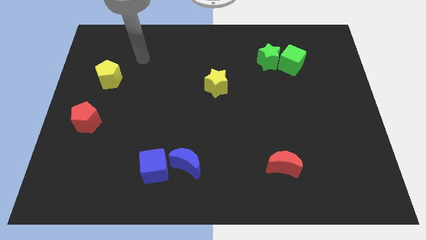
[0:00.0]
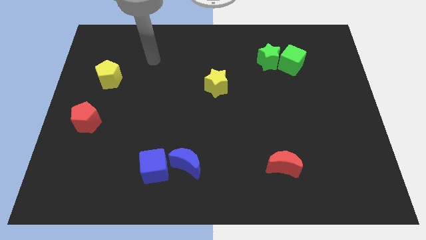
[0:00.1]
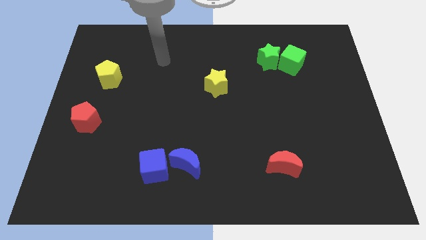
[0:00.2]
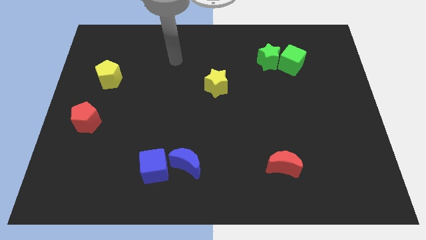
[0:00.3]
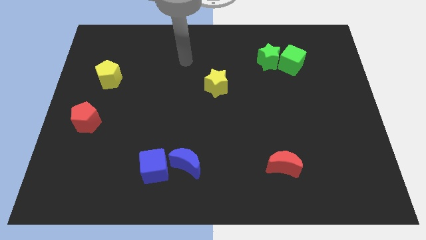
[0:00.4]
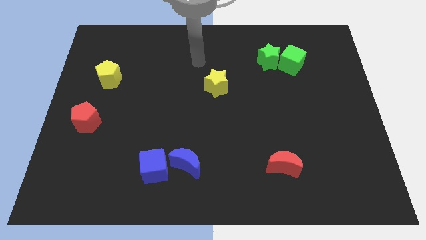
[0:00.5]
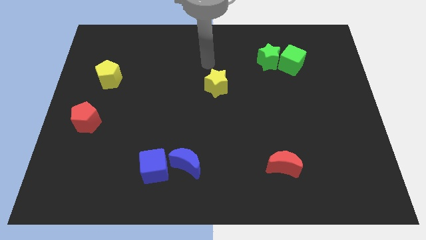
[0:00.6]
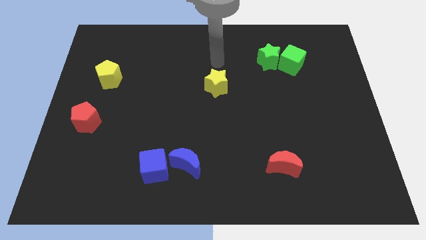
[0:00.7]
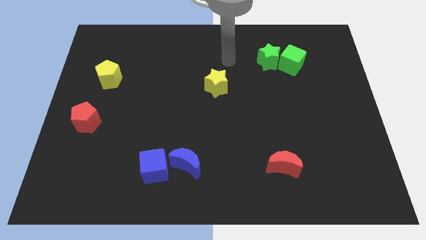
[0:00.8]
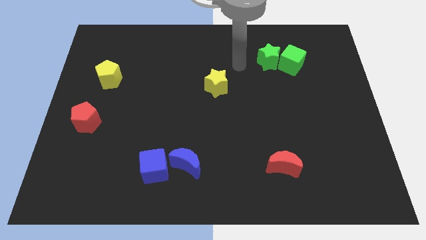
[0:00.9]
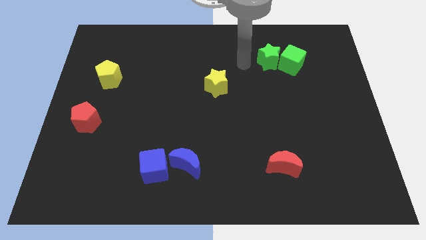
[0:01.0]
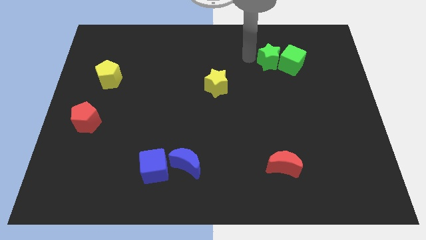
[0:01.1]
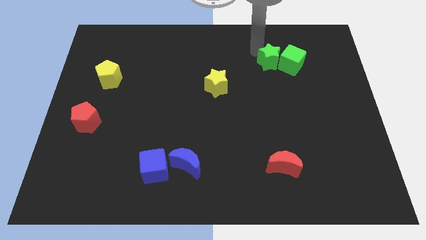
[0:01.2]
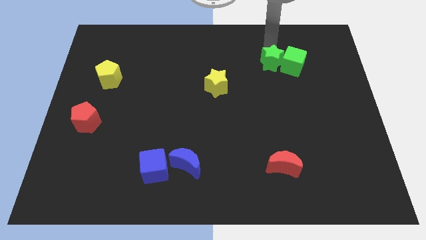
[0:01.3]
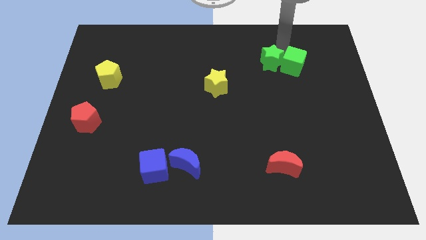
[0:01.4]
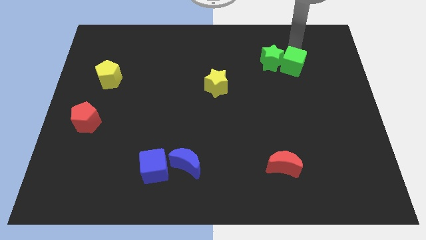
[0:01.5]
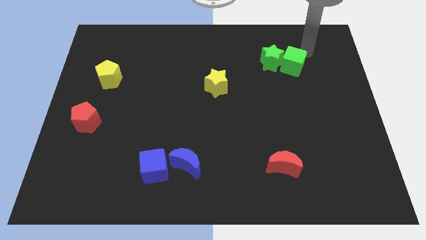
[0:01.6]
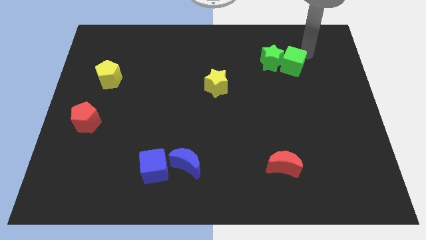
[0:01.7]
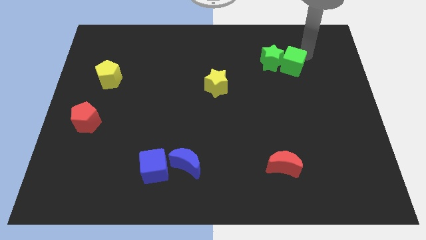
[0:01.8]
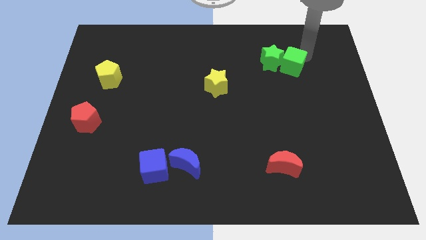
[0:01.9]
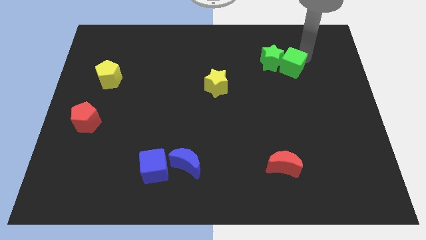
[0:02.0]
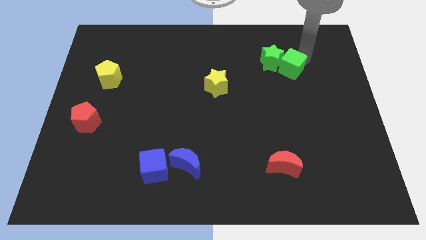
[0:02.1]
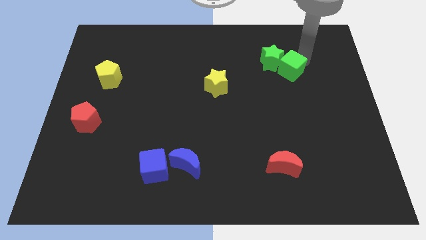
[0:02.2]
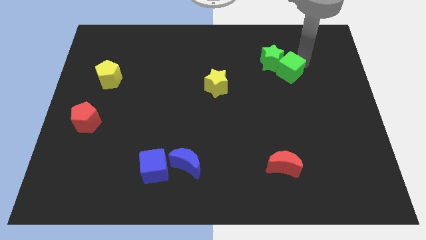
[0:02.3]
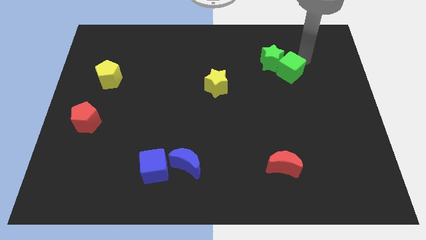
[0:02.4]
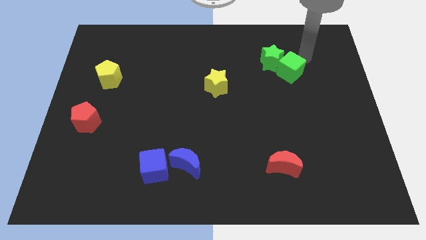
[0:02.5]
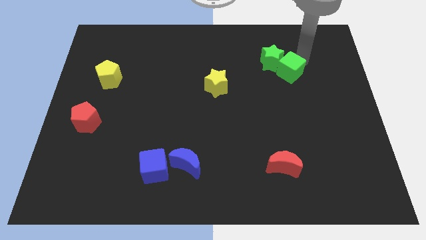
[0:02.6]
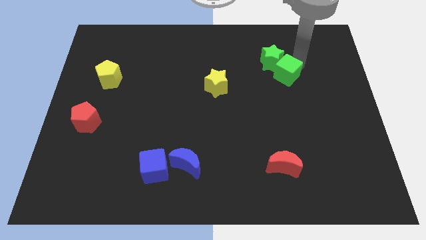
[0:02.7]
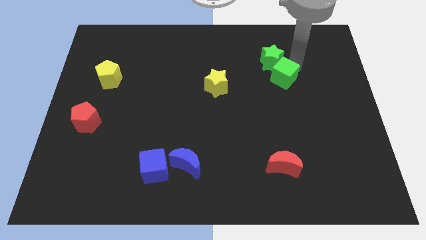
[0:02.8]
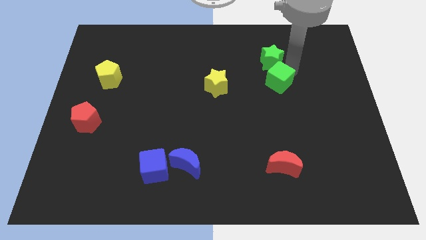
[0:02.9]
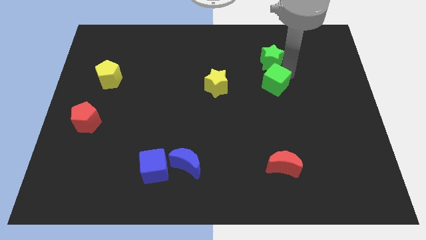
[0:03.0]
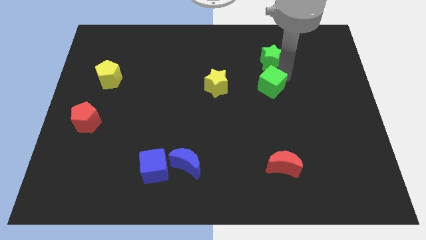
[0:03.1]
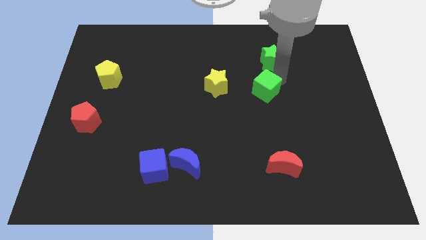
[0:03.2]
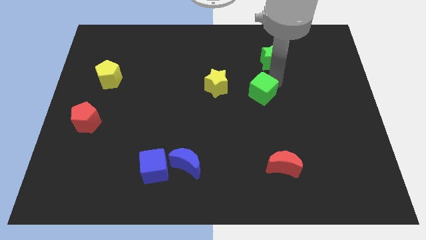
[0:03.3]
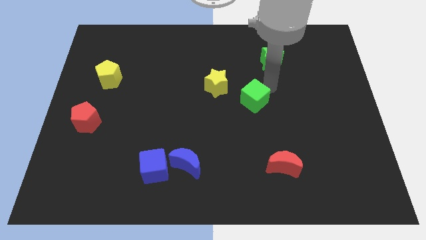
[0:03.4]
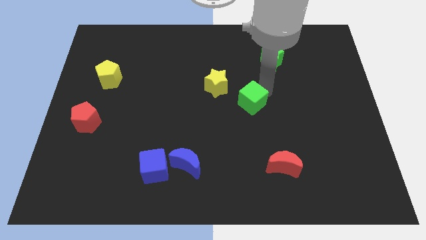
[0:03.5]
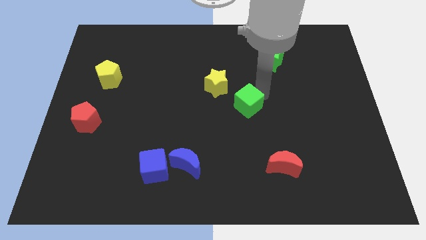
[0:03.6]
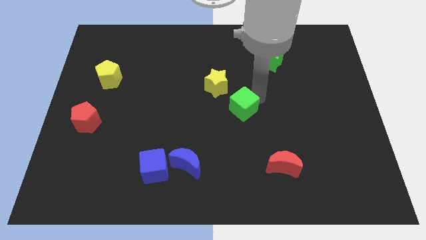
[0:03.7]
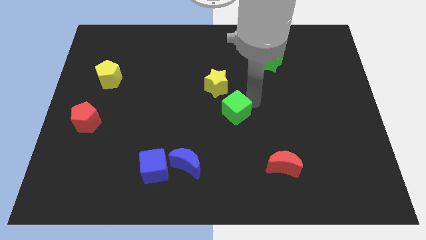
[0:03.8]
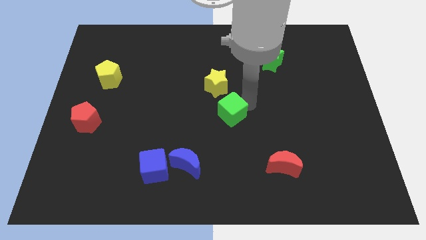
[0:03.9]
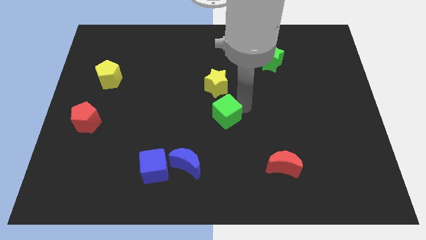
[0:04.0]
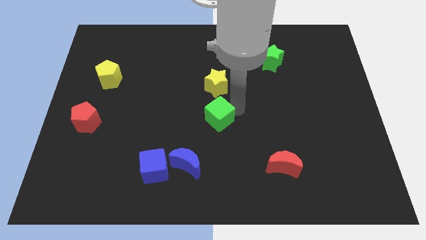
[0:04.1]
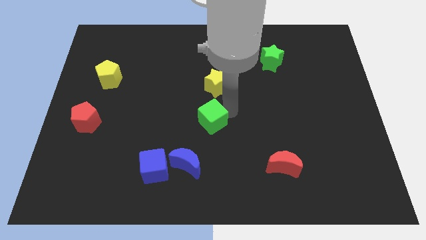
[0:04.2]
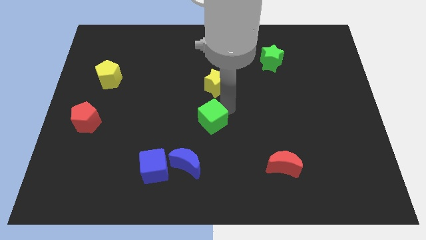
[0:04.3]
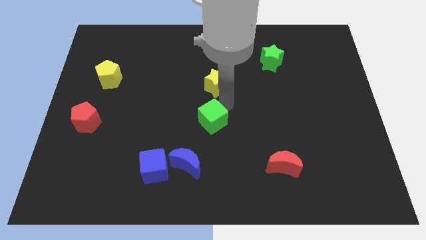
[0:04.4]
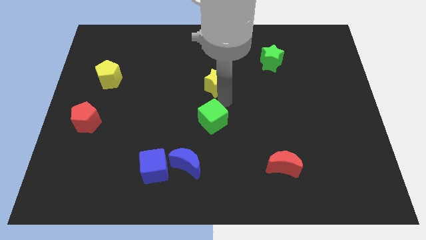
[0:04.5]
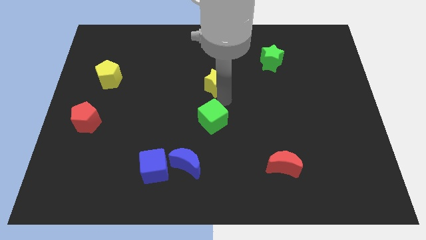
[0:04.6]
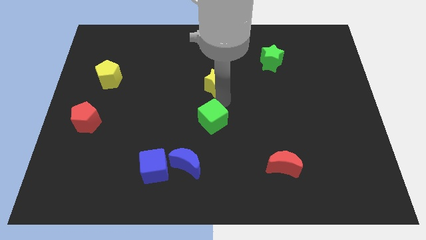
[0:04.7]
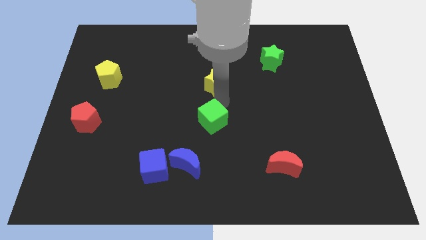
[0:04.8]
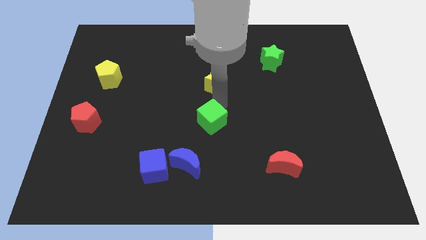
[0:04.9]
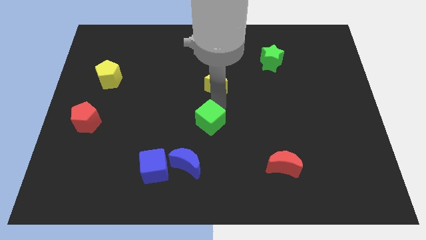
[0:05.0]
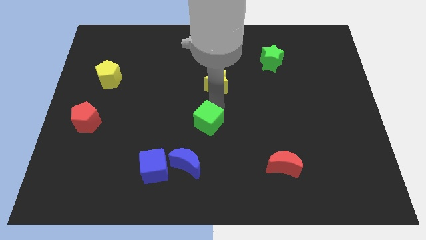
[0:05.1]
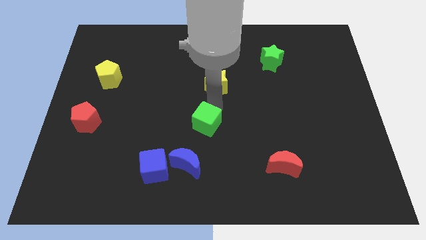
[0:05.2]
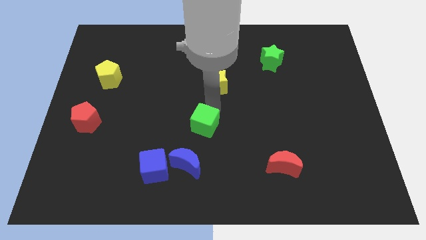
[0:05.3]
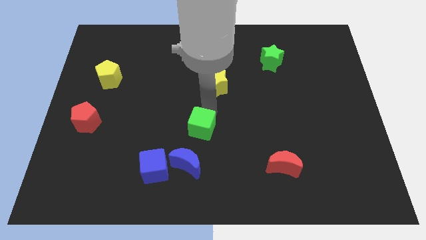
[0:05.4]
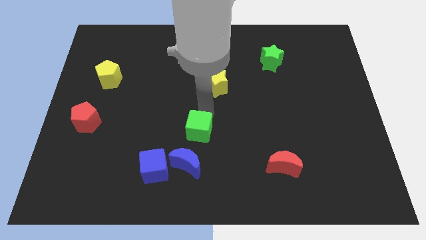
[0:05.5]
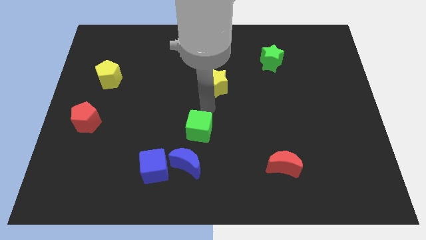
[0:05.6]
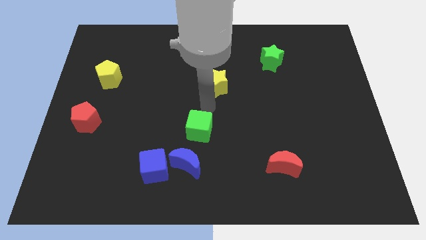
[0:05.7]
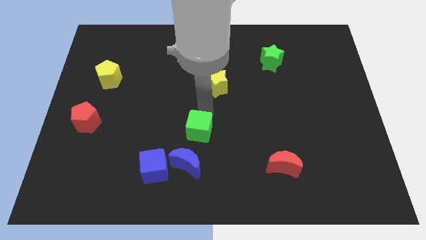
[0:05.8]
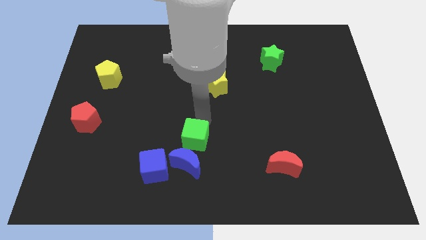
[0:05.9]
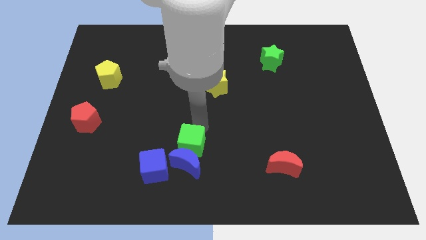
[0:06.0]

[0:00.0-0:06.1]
push the green cube to the blue moon

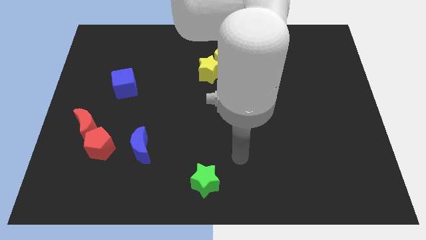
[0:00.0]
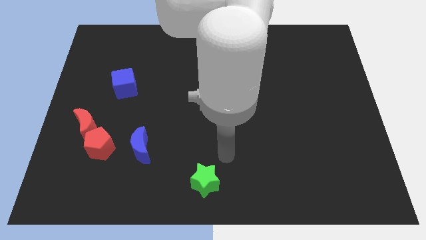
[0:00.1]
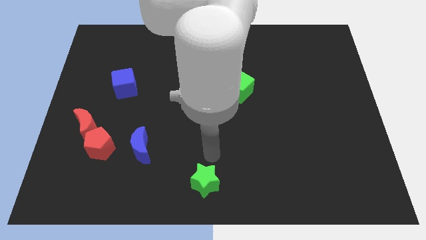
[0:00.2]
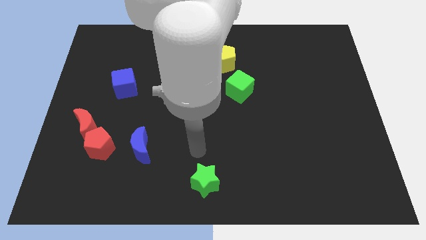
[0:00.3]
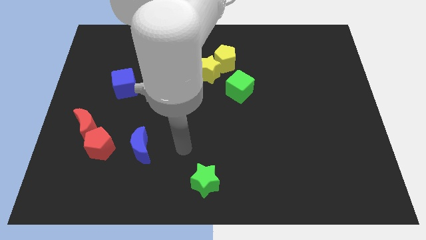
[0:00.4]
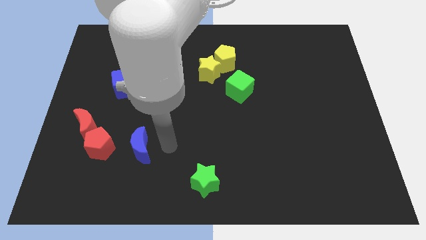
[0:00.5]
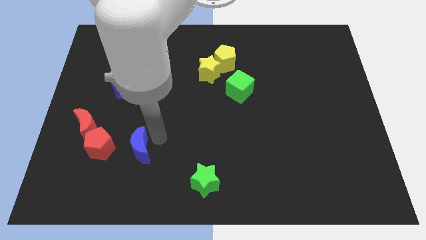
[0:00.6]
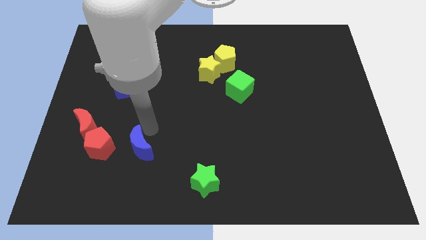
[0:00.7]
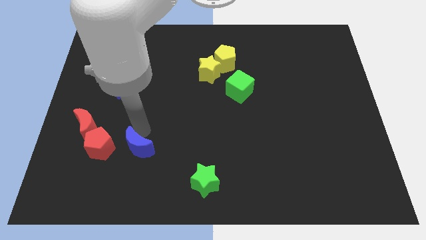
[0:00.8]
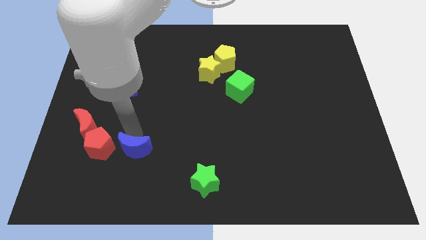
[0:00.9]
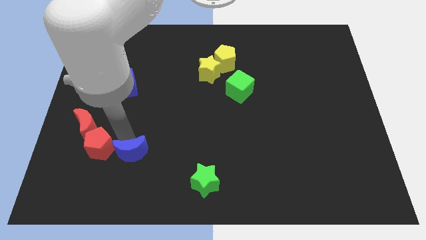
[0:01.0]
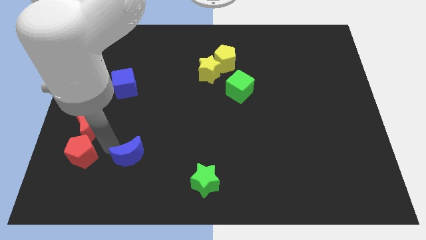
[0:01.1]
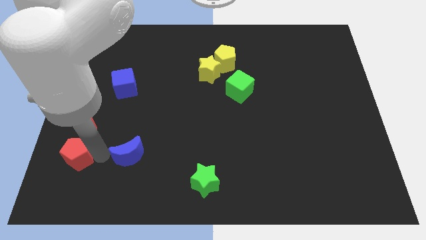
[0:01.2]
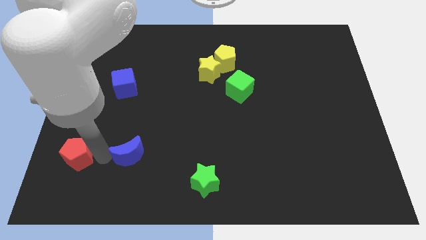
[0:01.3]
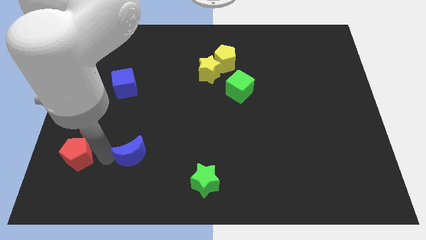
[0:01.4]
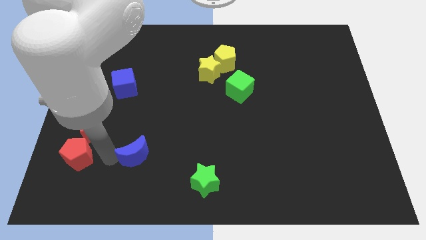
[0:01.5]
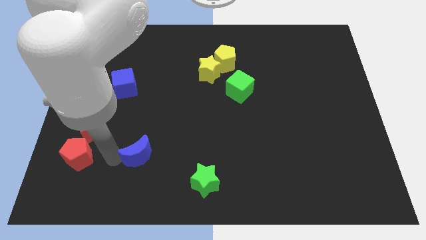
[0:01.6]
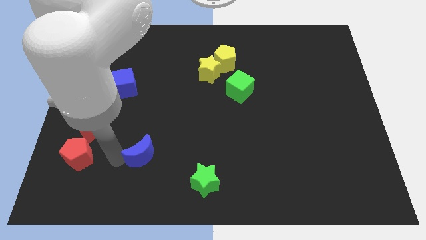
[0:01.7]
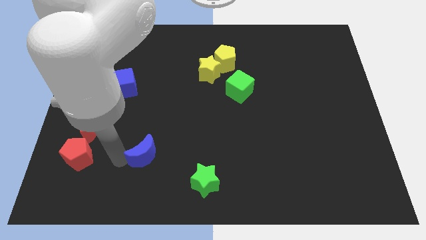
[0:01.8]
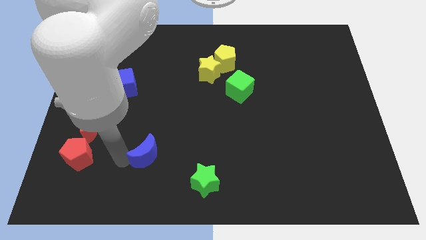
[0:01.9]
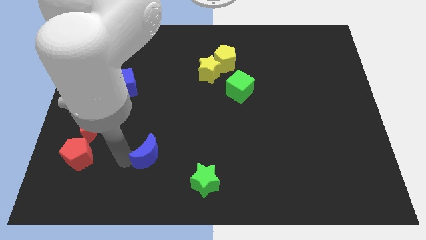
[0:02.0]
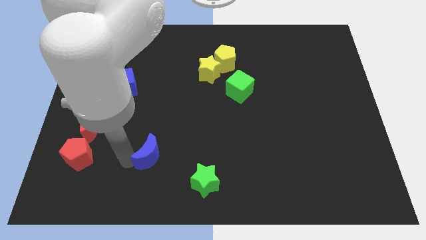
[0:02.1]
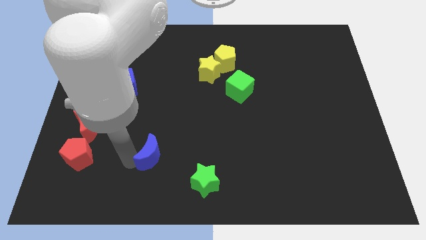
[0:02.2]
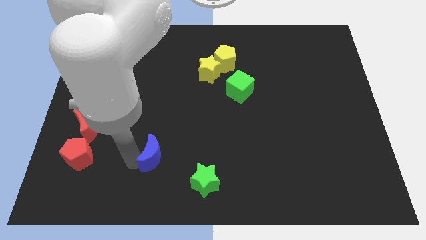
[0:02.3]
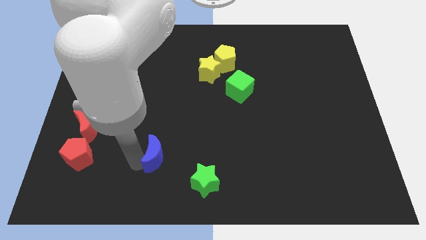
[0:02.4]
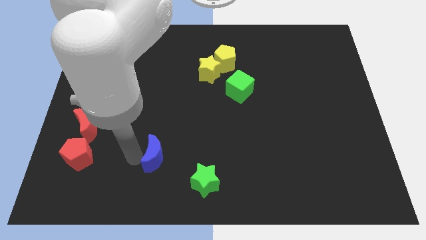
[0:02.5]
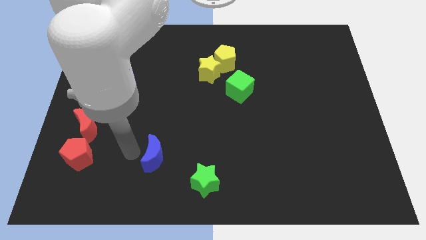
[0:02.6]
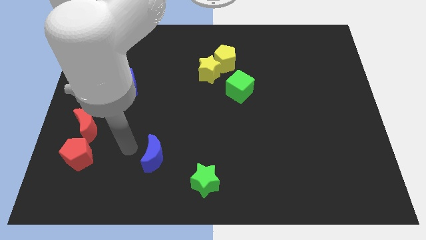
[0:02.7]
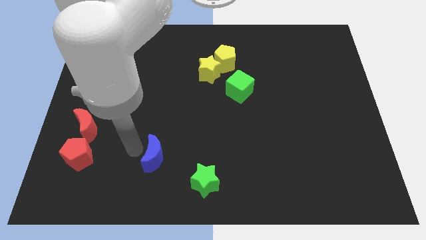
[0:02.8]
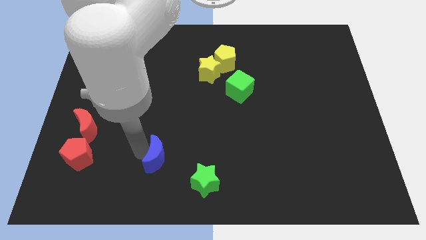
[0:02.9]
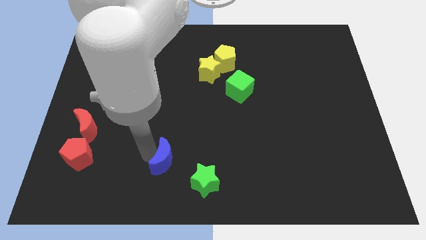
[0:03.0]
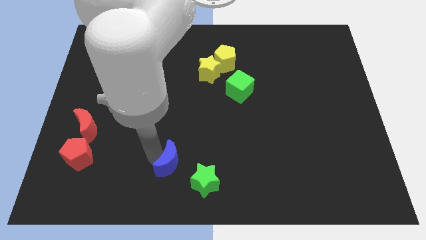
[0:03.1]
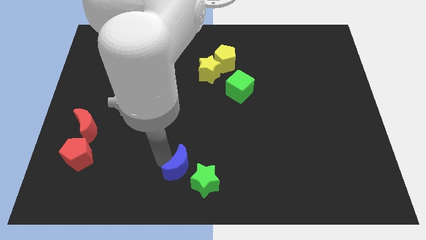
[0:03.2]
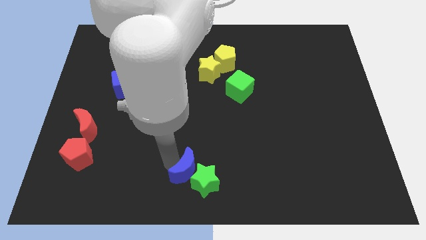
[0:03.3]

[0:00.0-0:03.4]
push the blue moon towards the green star
